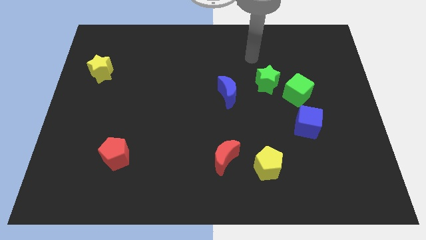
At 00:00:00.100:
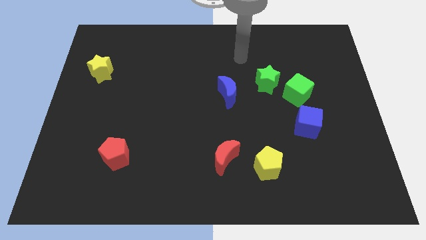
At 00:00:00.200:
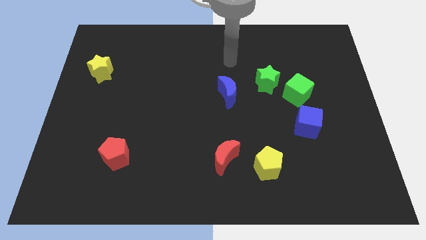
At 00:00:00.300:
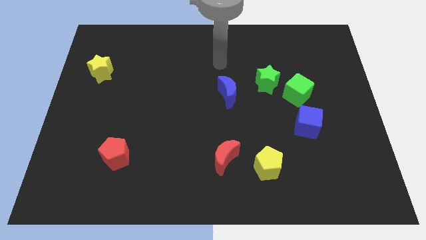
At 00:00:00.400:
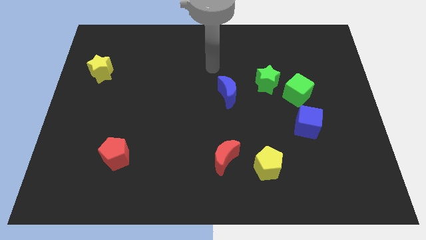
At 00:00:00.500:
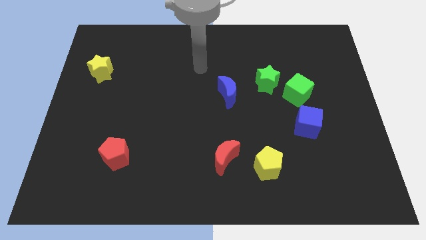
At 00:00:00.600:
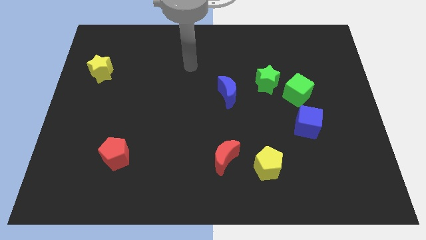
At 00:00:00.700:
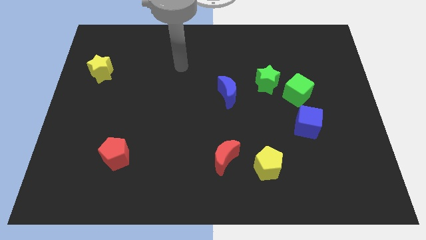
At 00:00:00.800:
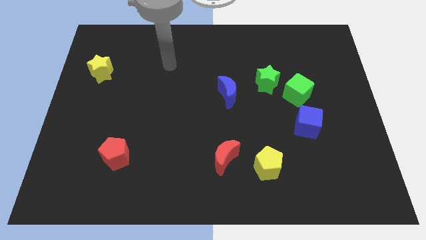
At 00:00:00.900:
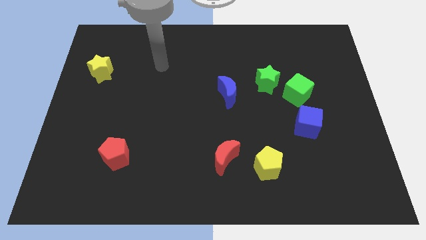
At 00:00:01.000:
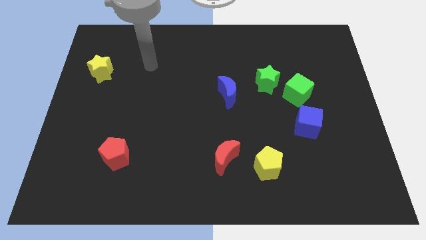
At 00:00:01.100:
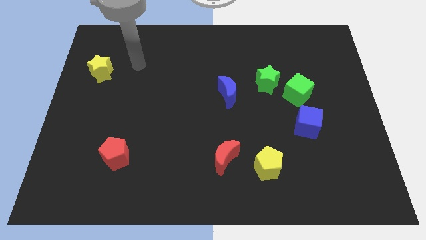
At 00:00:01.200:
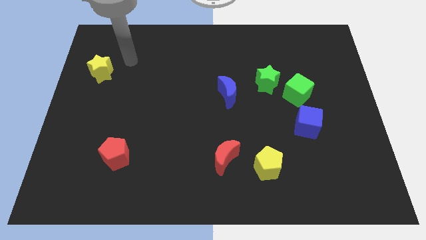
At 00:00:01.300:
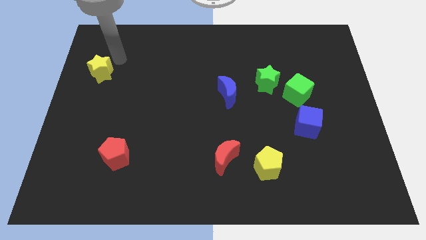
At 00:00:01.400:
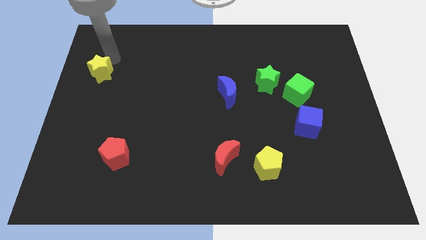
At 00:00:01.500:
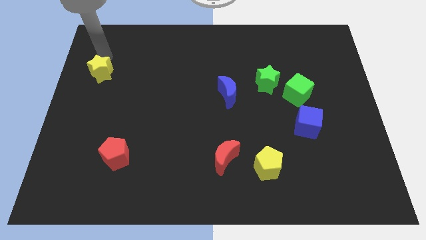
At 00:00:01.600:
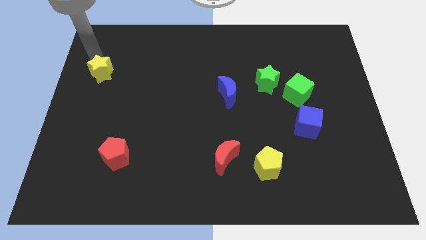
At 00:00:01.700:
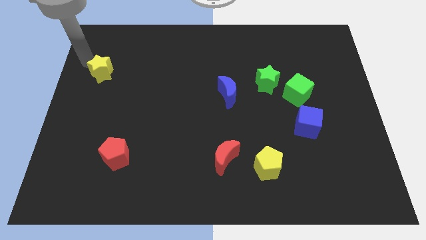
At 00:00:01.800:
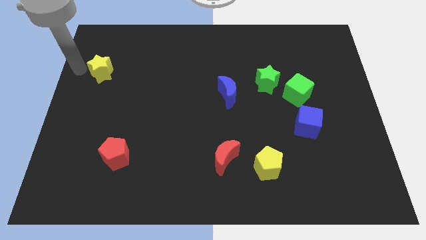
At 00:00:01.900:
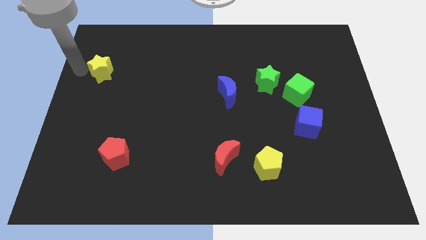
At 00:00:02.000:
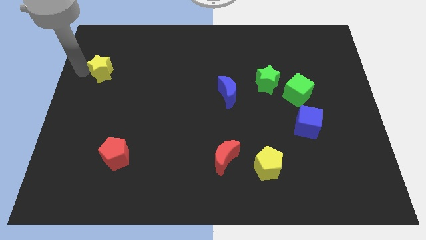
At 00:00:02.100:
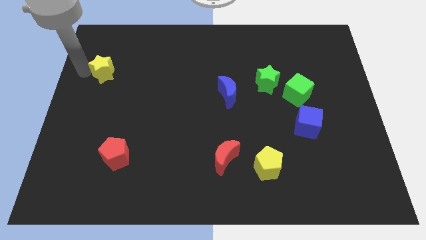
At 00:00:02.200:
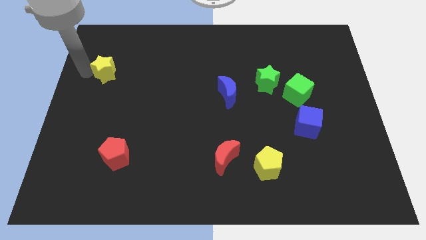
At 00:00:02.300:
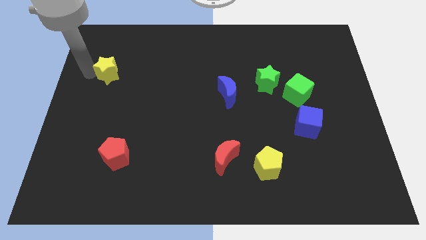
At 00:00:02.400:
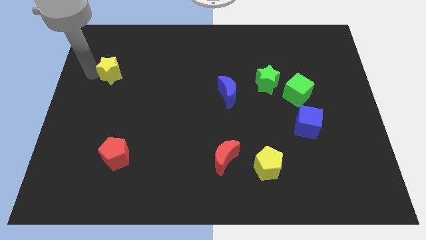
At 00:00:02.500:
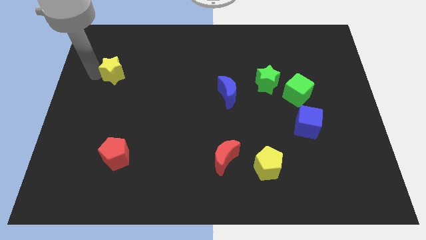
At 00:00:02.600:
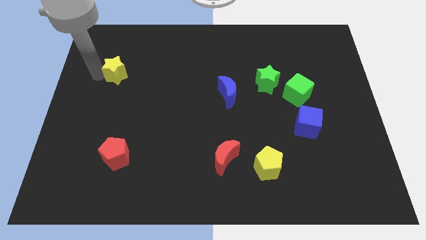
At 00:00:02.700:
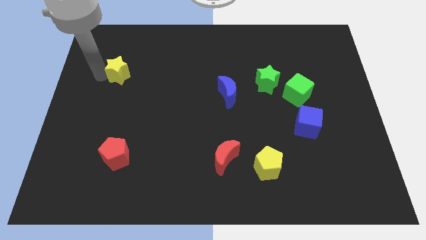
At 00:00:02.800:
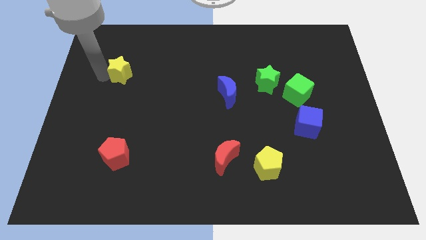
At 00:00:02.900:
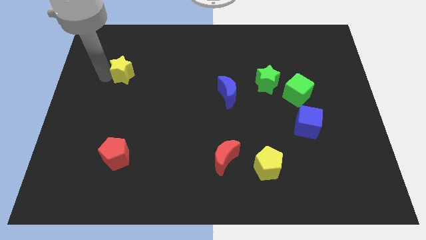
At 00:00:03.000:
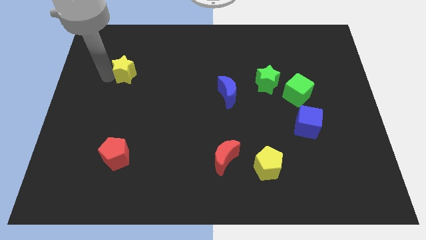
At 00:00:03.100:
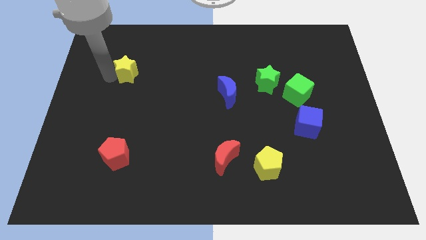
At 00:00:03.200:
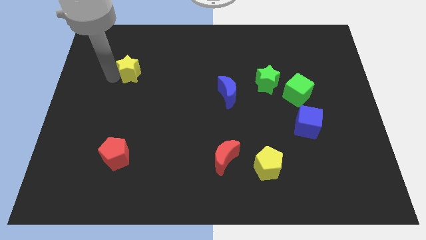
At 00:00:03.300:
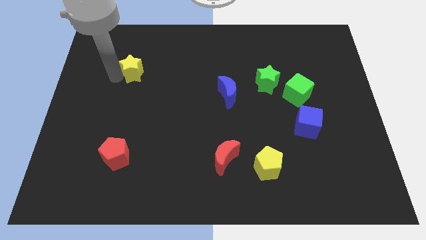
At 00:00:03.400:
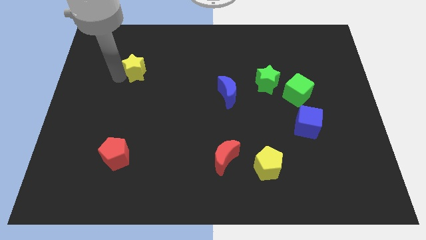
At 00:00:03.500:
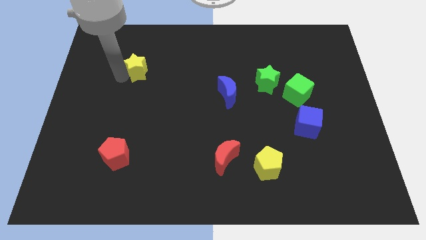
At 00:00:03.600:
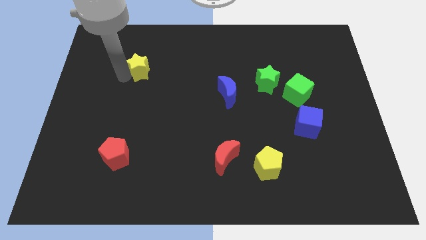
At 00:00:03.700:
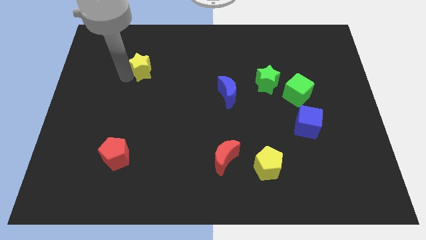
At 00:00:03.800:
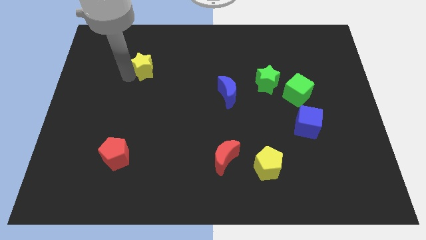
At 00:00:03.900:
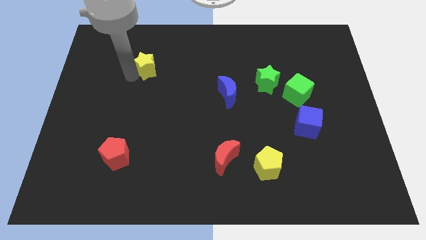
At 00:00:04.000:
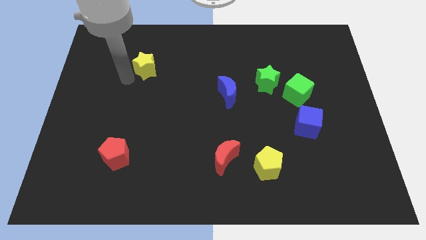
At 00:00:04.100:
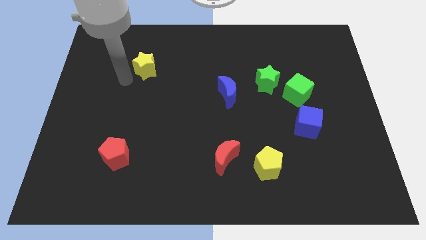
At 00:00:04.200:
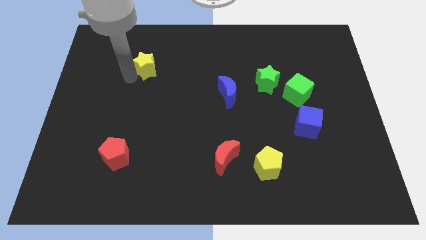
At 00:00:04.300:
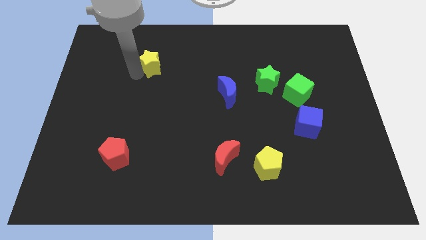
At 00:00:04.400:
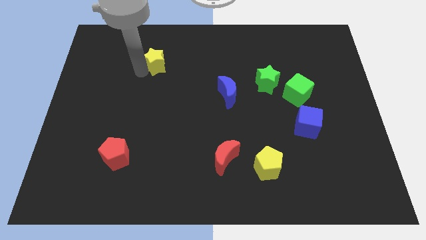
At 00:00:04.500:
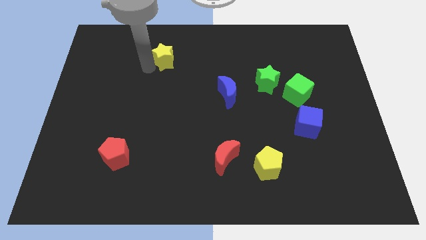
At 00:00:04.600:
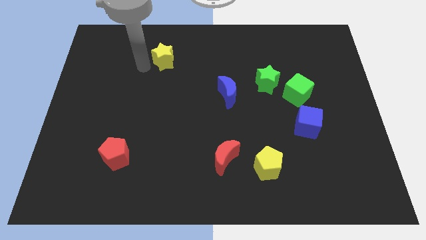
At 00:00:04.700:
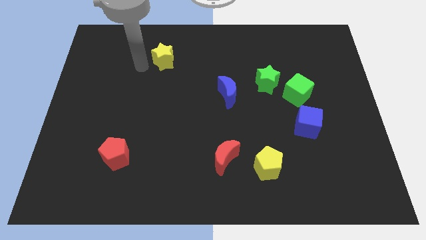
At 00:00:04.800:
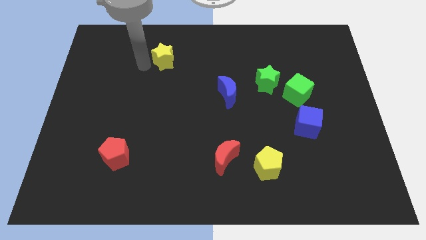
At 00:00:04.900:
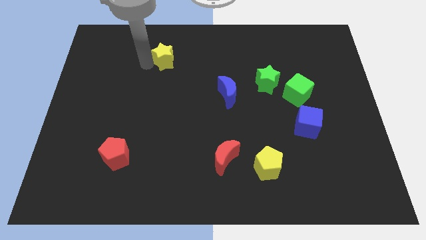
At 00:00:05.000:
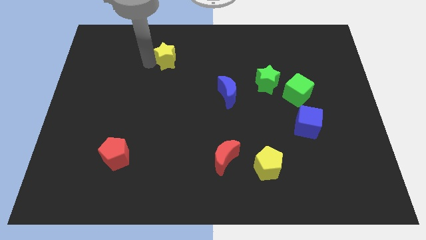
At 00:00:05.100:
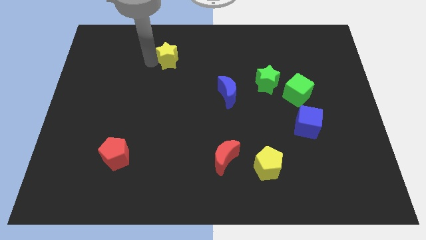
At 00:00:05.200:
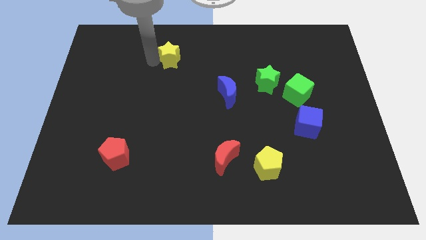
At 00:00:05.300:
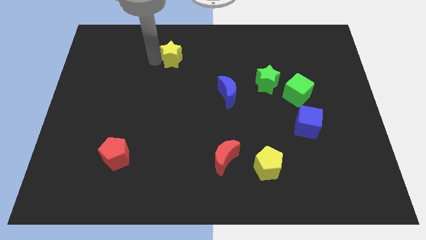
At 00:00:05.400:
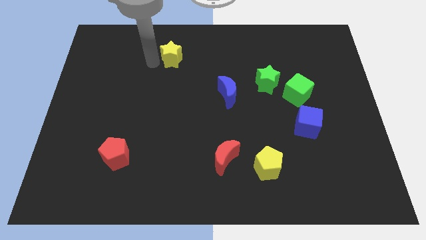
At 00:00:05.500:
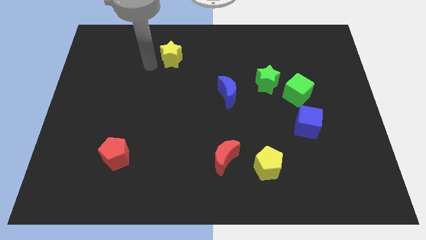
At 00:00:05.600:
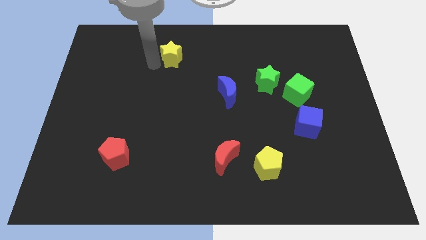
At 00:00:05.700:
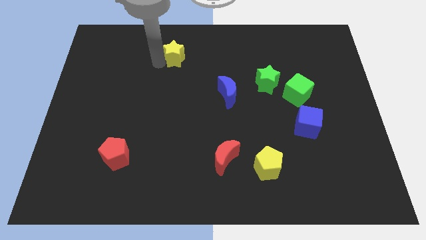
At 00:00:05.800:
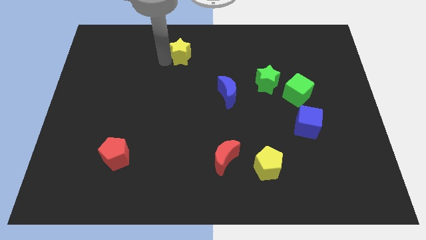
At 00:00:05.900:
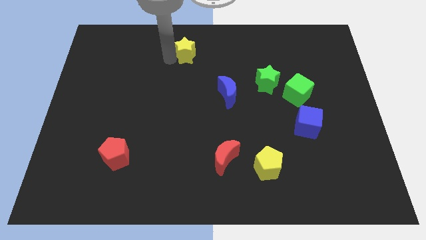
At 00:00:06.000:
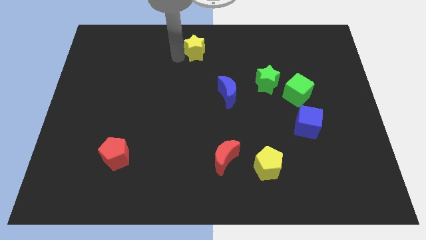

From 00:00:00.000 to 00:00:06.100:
slide the yellow star to the top
